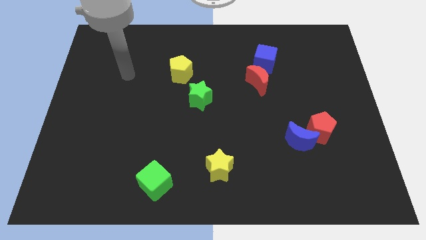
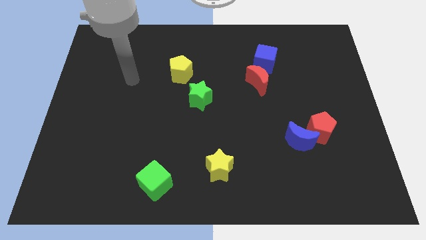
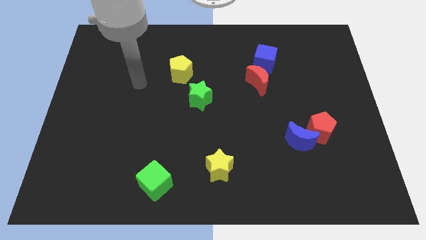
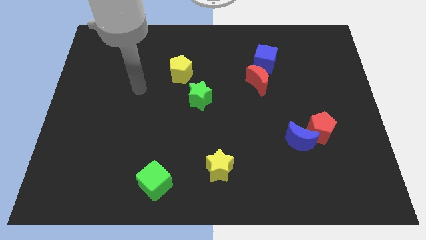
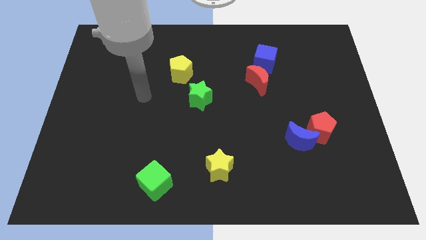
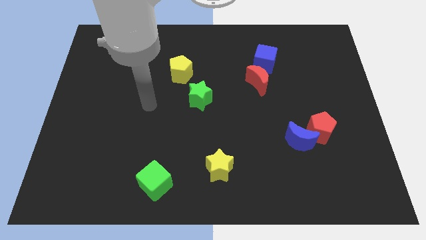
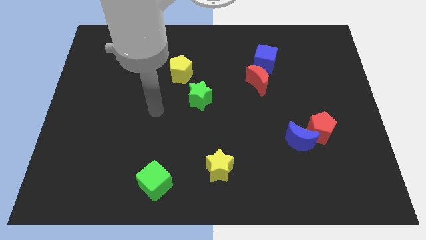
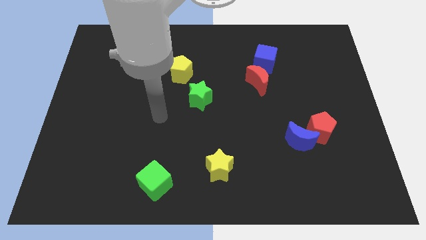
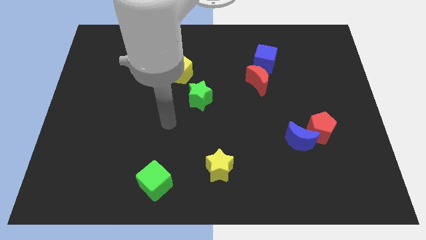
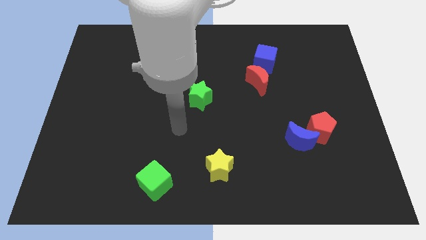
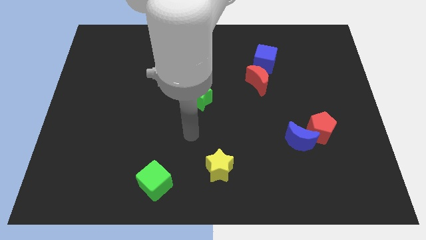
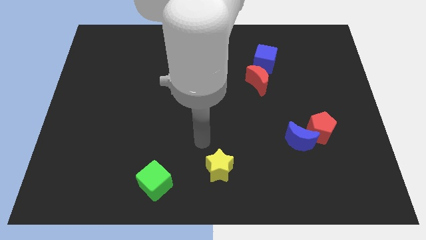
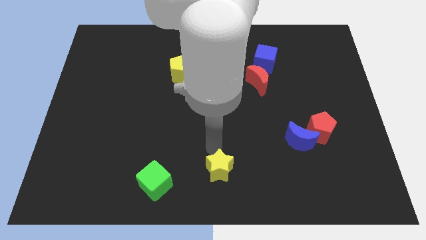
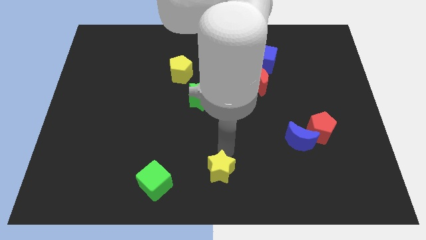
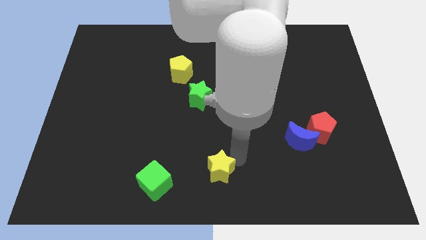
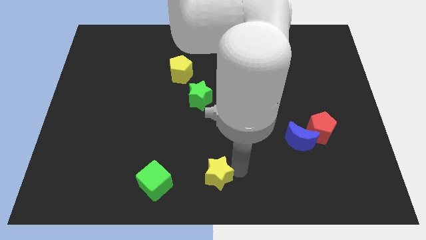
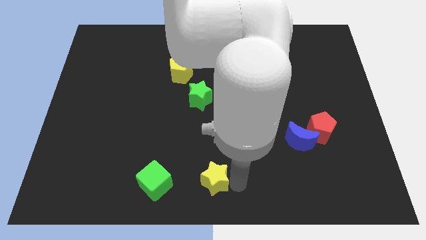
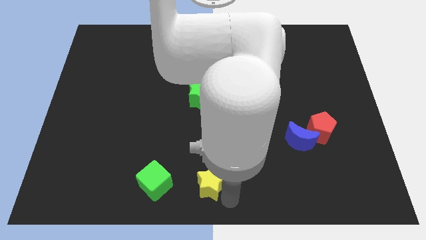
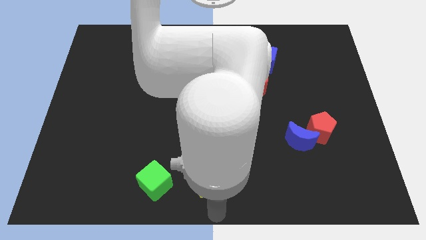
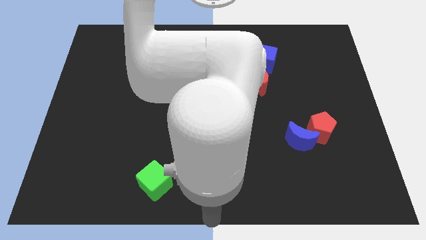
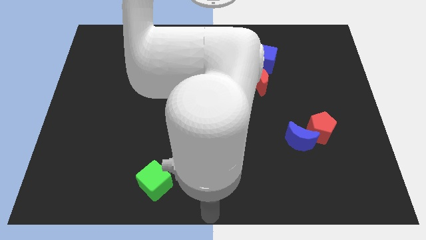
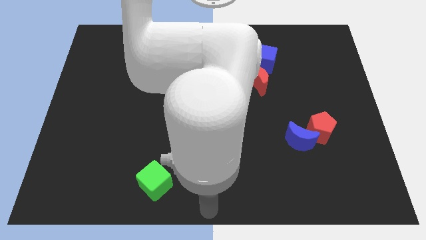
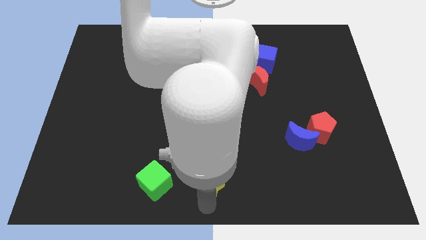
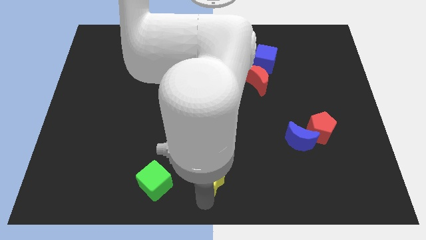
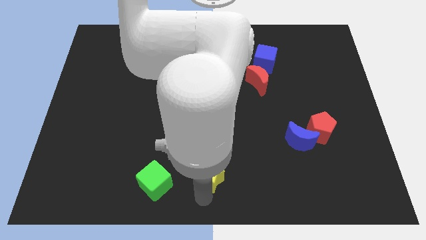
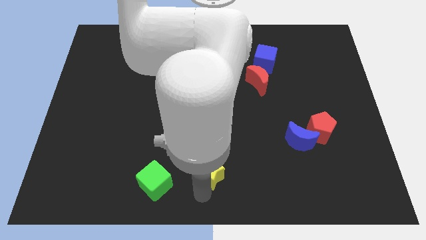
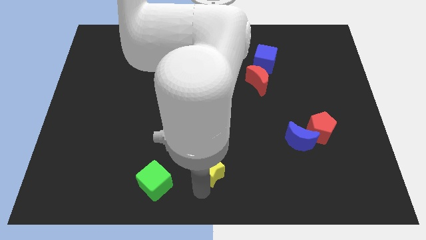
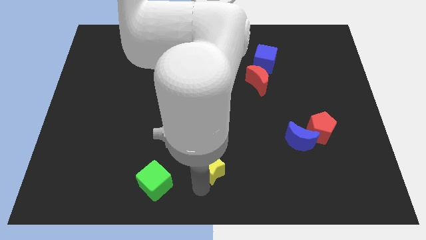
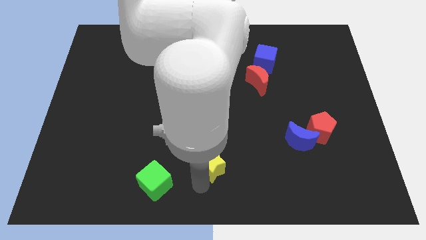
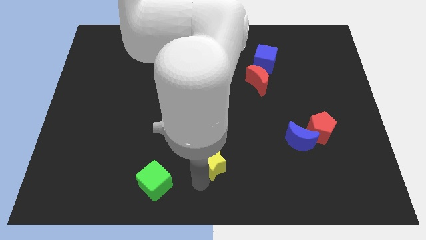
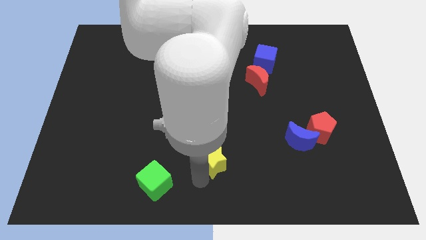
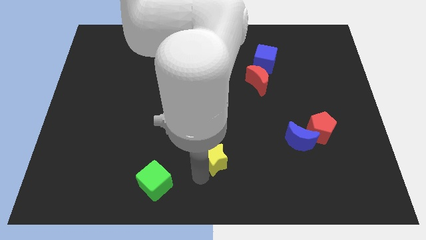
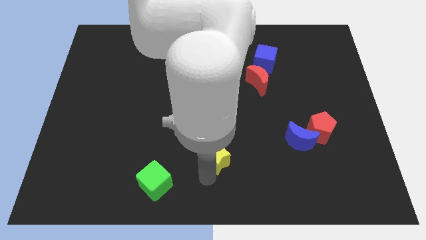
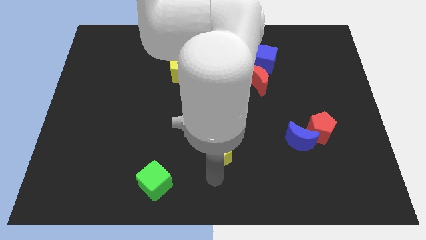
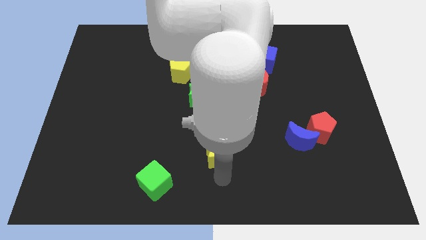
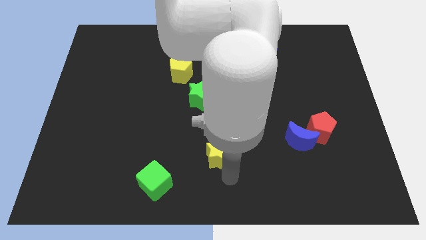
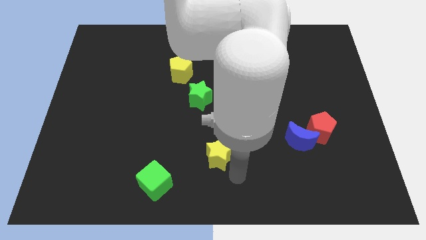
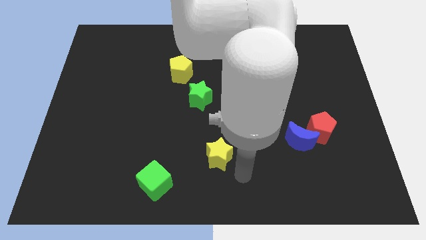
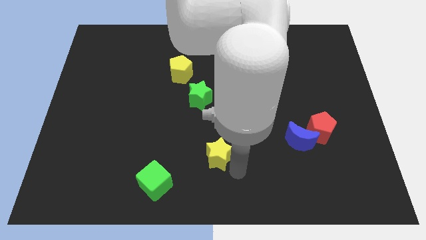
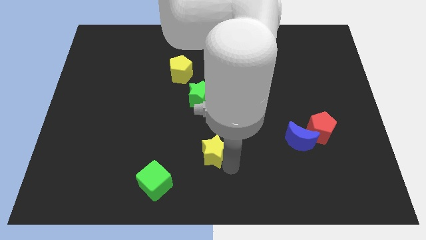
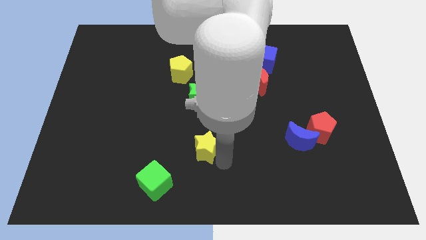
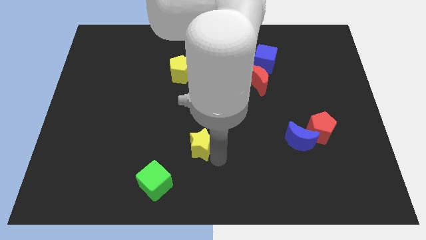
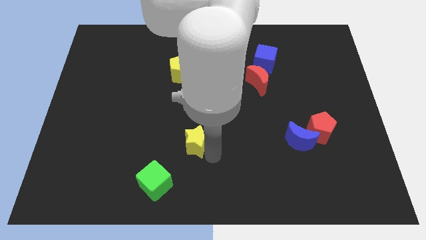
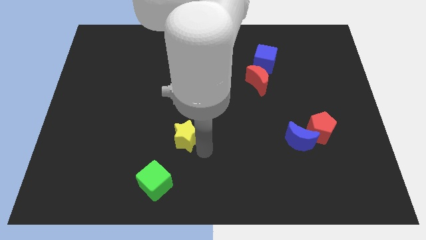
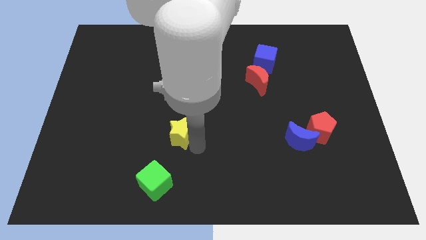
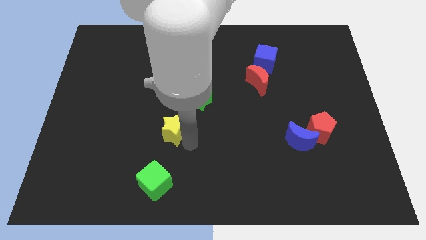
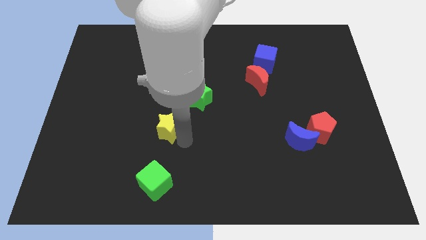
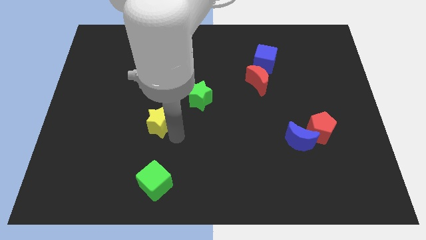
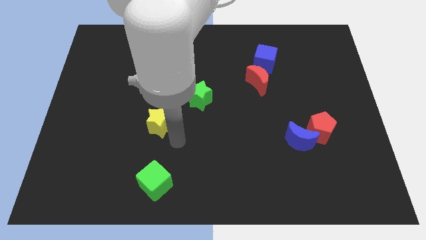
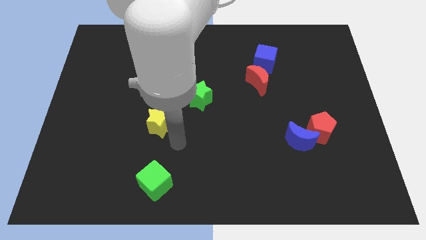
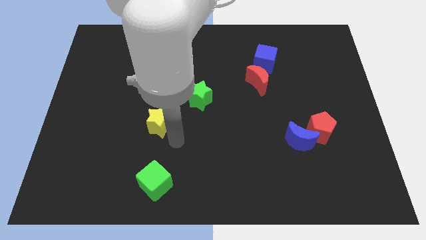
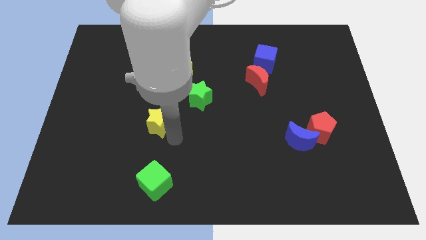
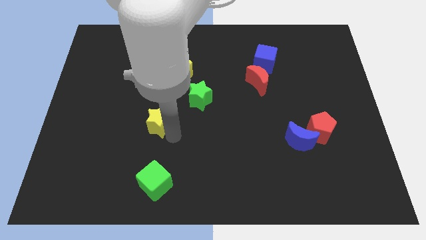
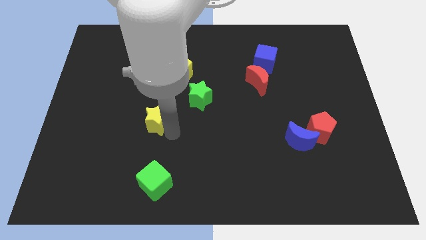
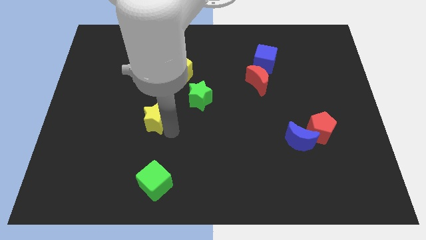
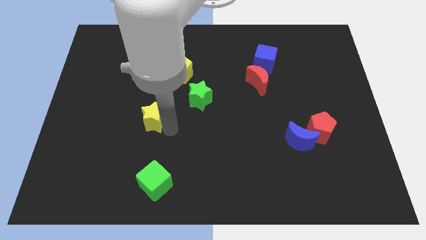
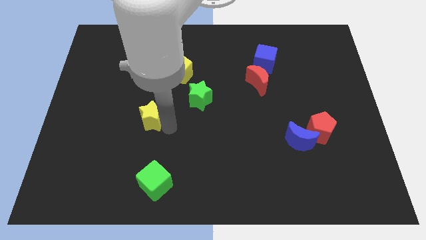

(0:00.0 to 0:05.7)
move the yellow star up and left diagonally

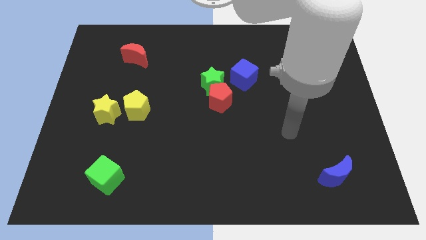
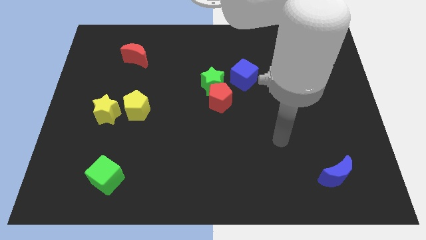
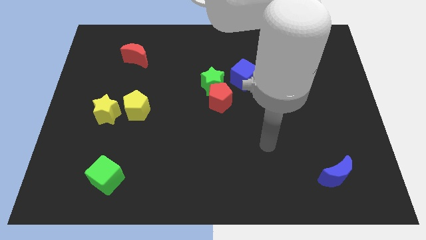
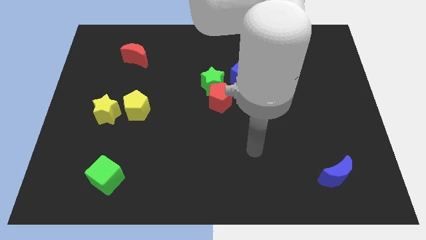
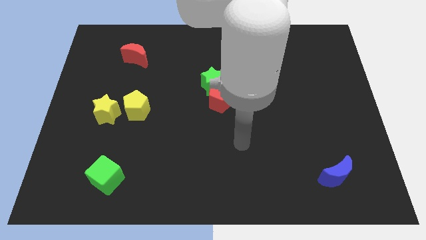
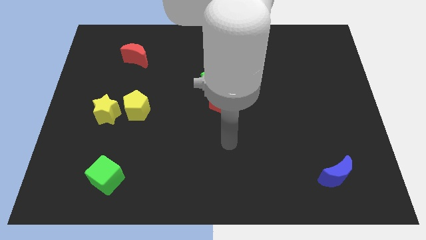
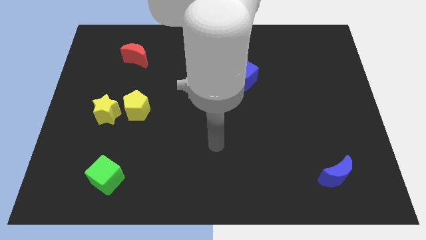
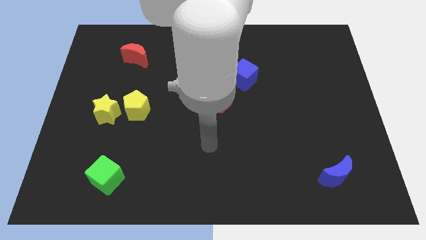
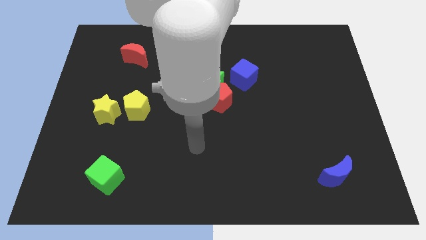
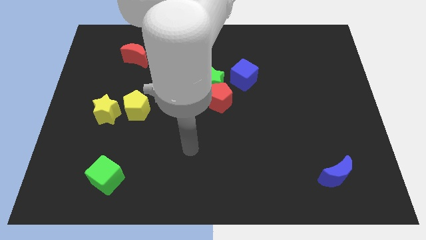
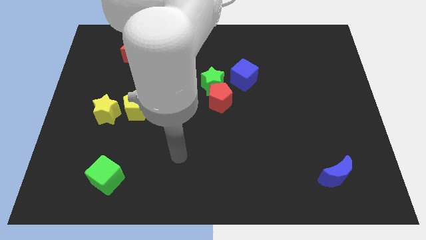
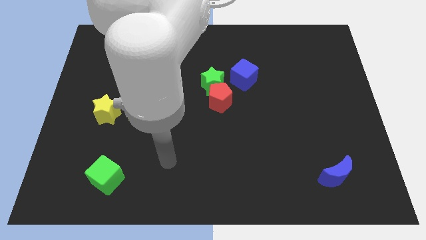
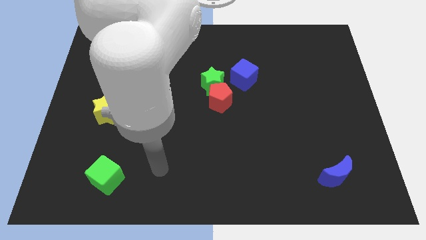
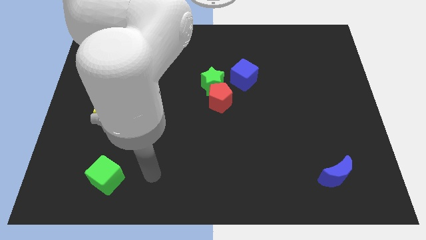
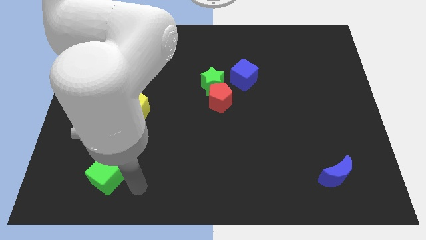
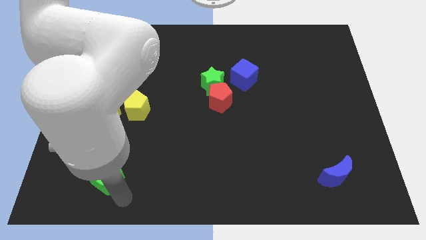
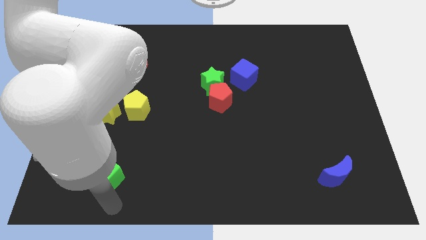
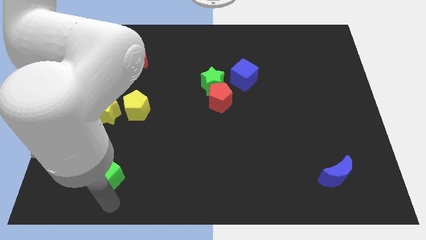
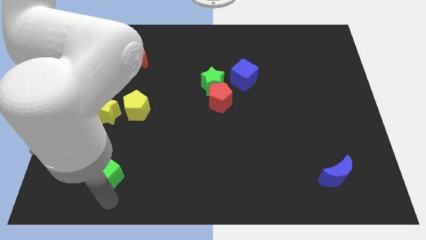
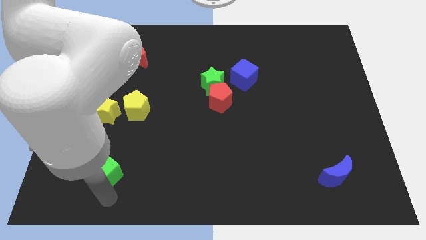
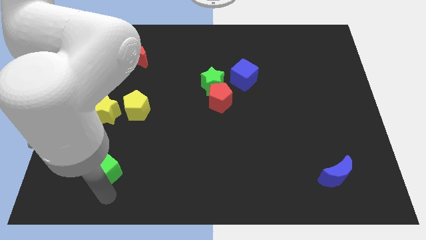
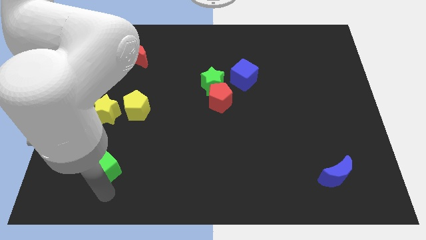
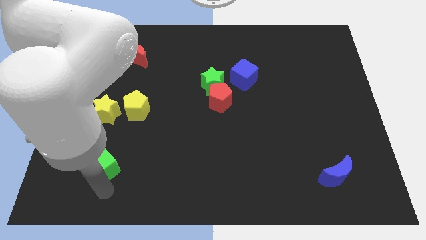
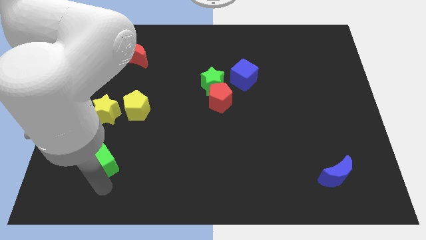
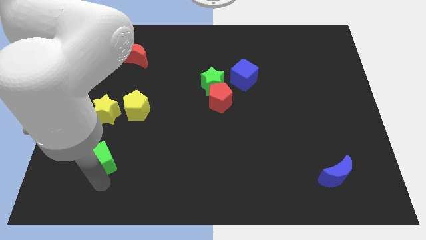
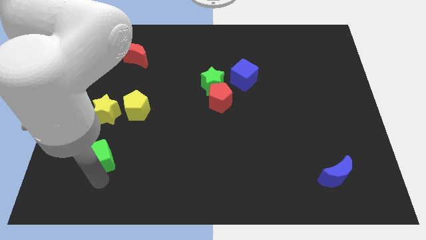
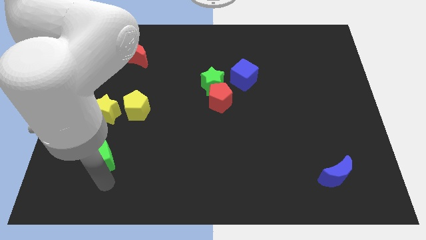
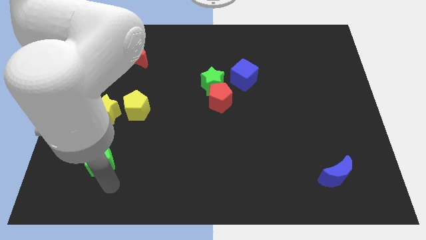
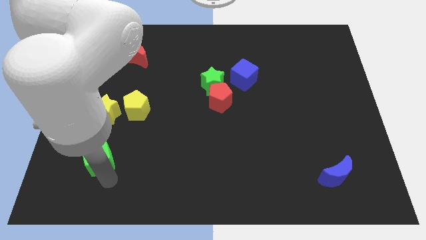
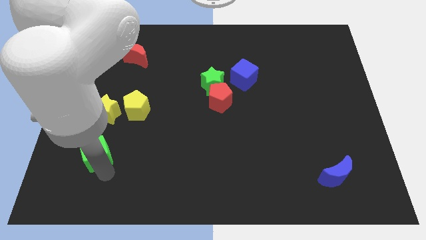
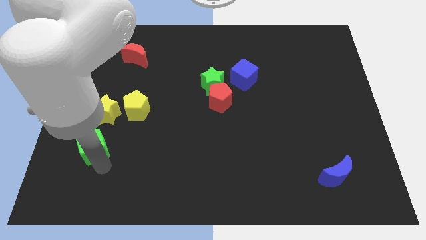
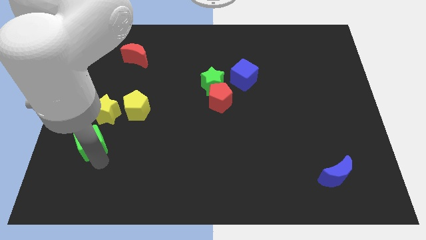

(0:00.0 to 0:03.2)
push the green cube upwards a little bit
